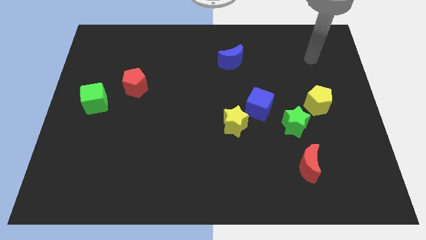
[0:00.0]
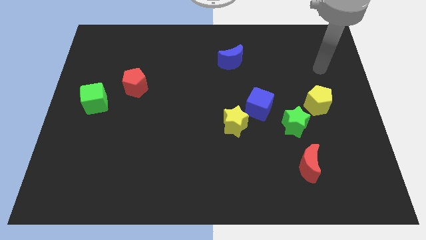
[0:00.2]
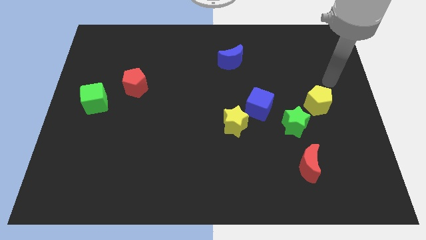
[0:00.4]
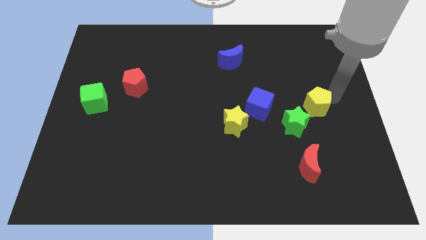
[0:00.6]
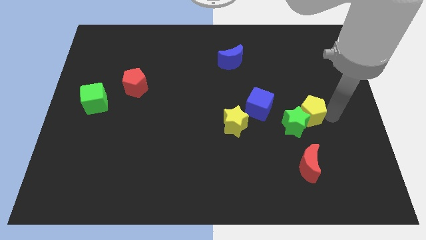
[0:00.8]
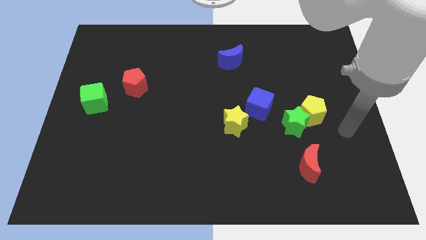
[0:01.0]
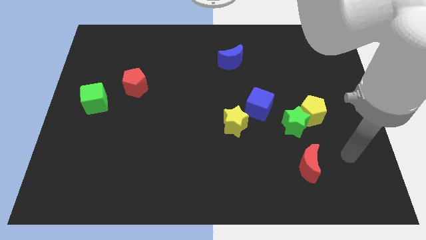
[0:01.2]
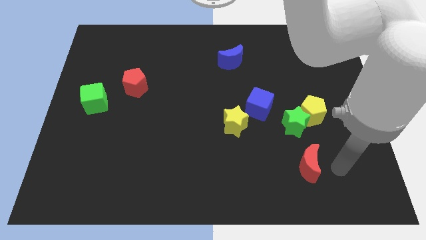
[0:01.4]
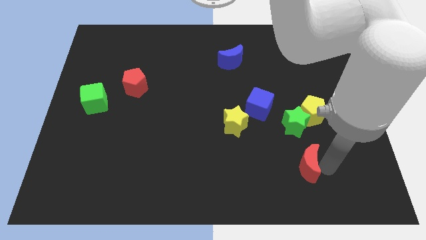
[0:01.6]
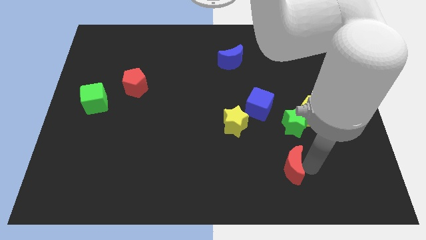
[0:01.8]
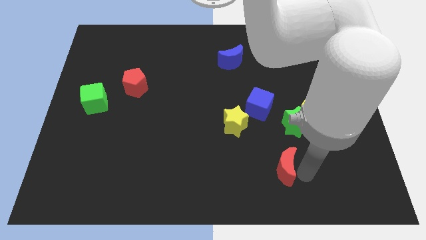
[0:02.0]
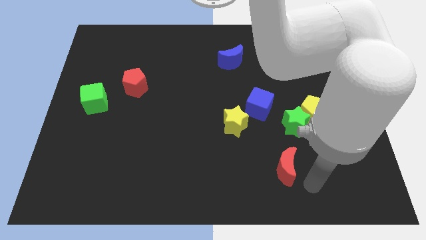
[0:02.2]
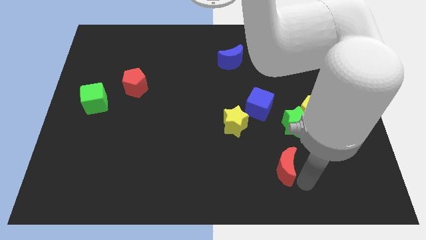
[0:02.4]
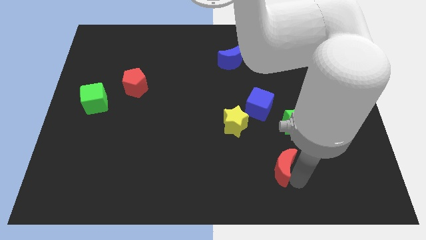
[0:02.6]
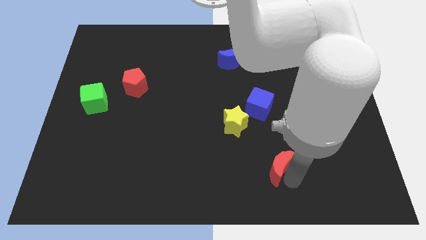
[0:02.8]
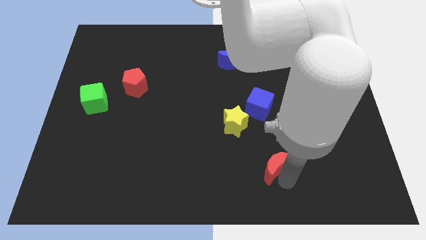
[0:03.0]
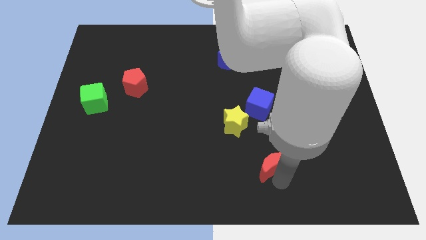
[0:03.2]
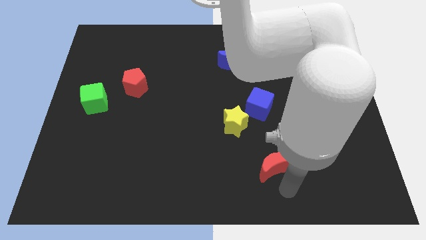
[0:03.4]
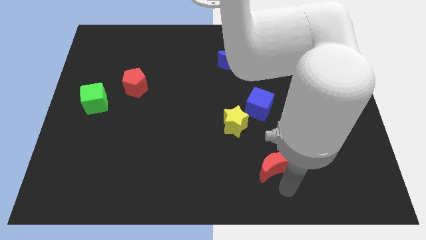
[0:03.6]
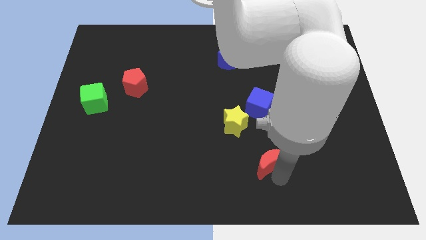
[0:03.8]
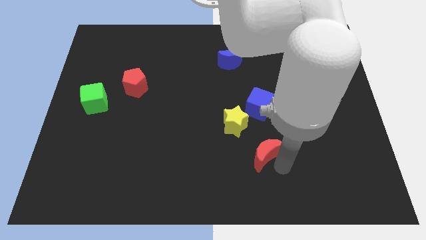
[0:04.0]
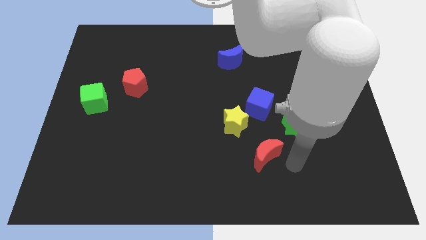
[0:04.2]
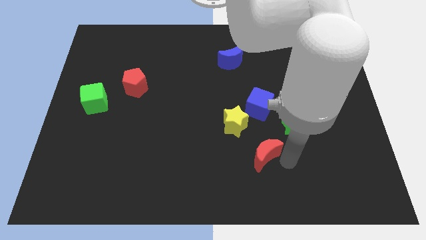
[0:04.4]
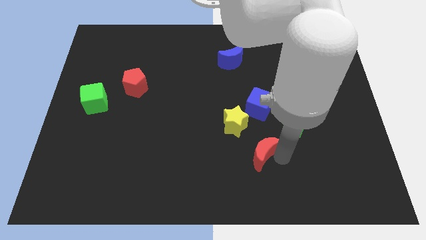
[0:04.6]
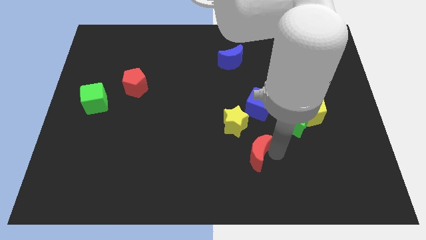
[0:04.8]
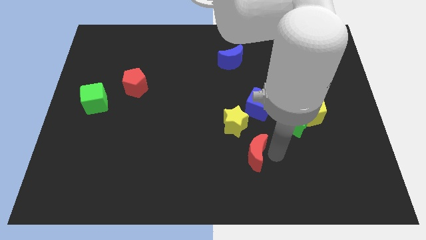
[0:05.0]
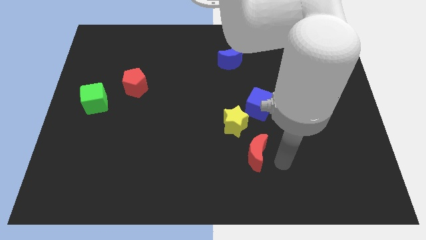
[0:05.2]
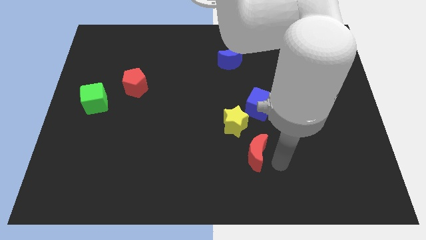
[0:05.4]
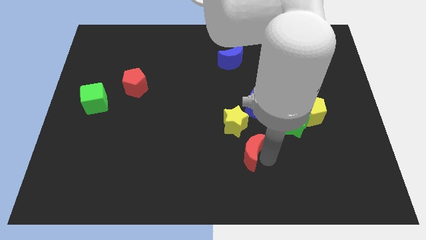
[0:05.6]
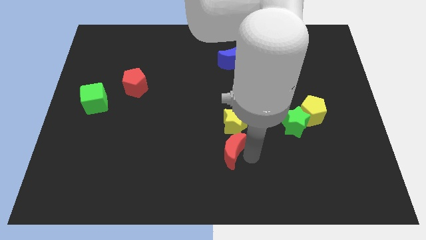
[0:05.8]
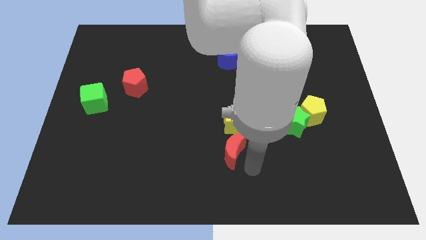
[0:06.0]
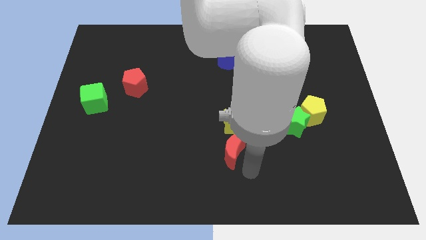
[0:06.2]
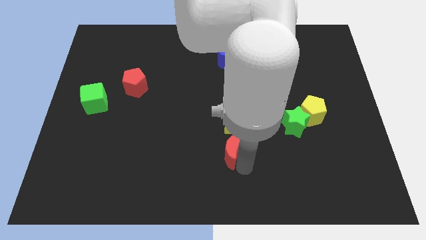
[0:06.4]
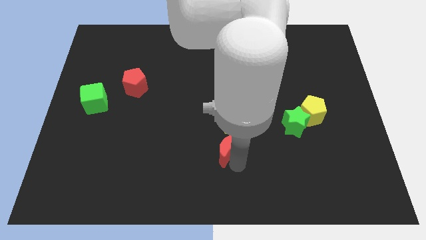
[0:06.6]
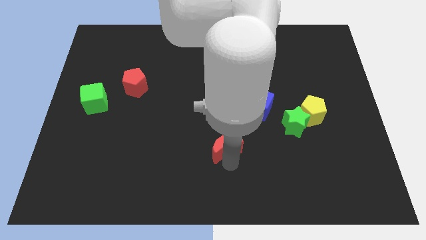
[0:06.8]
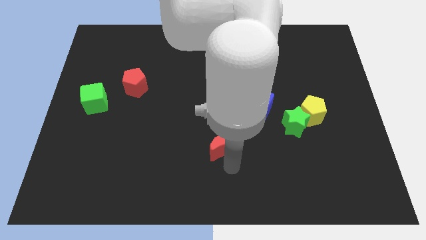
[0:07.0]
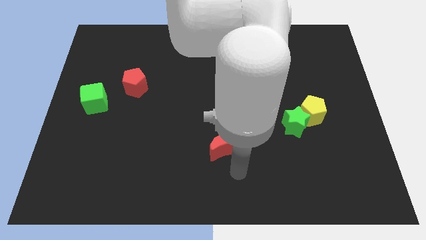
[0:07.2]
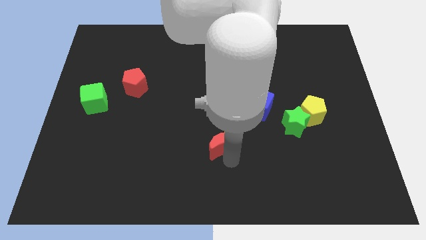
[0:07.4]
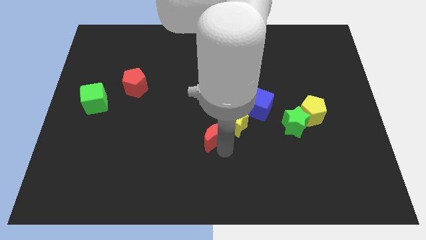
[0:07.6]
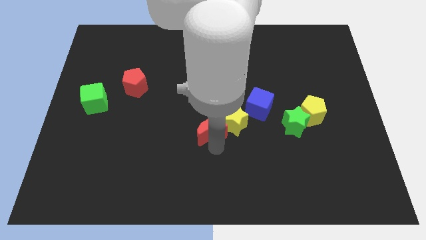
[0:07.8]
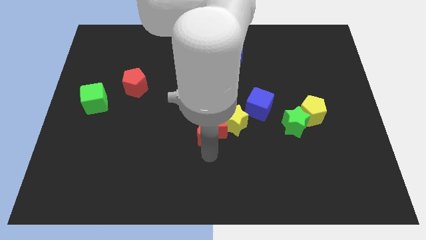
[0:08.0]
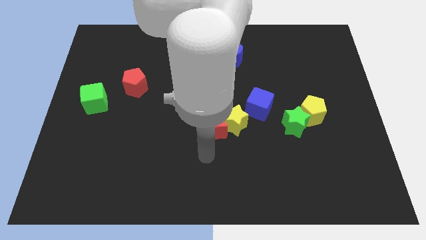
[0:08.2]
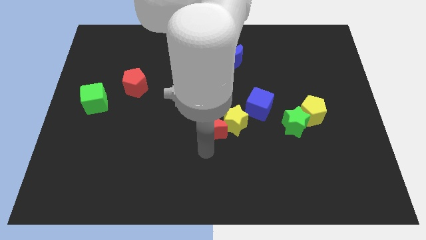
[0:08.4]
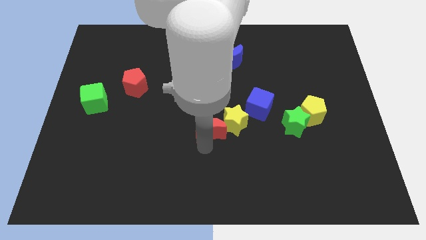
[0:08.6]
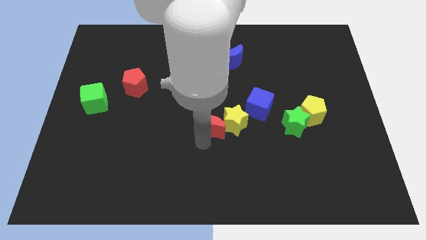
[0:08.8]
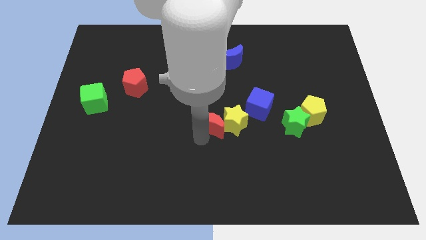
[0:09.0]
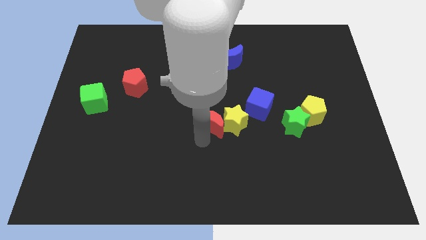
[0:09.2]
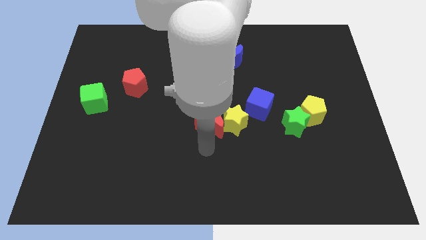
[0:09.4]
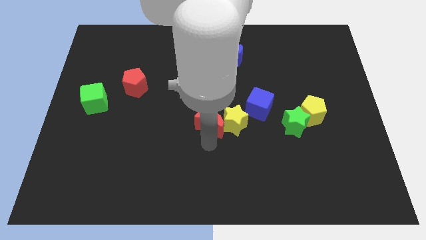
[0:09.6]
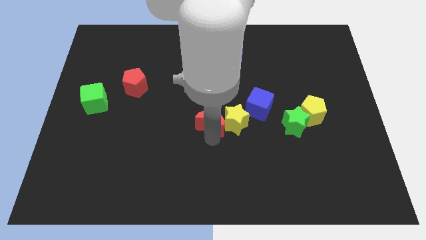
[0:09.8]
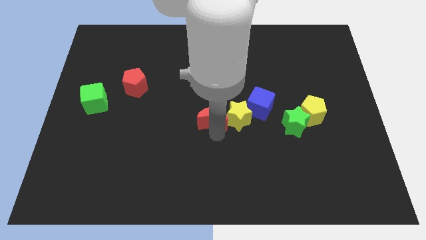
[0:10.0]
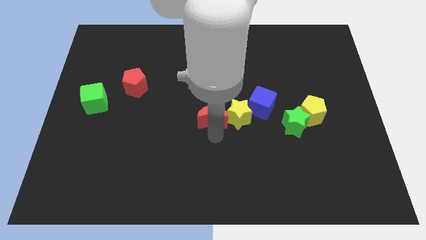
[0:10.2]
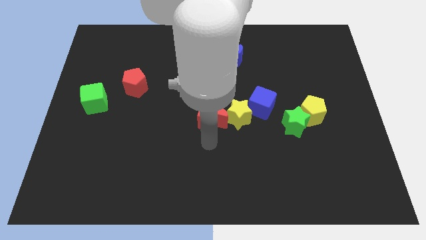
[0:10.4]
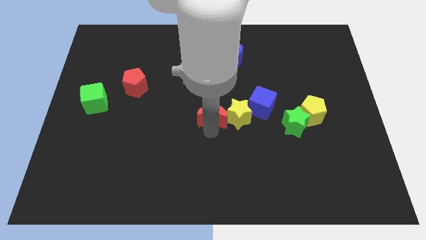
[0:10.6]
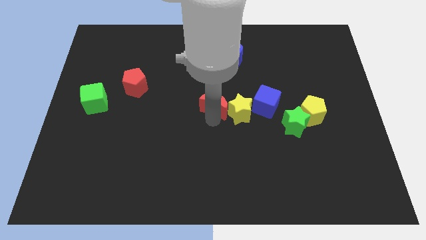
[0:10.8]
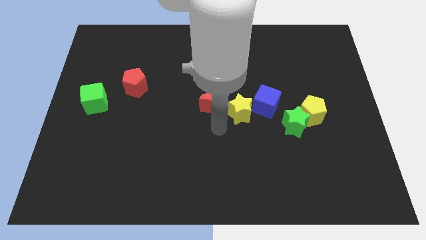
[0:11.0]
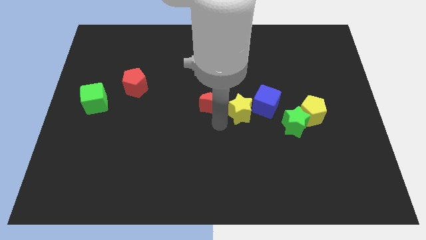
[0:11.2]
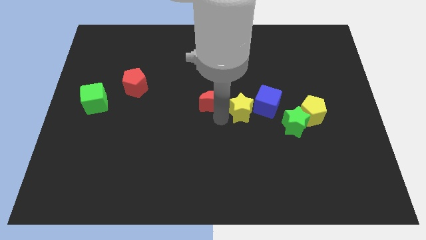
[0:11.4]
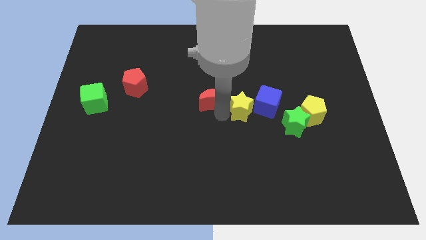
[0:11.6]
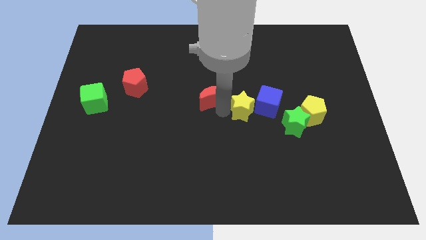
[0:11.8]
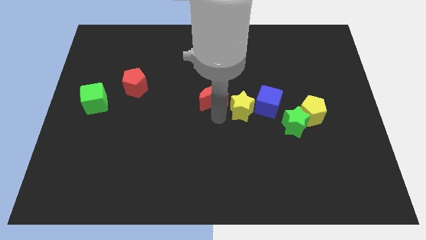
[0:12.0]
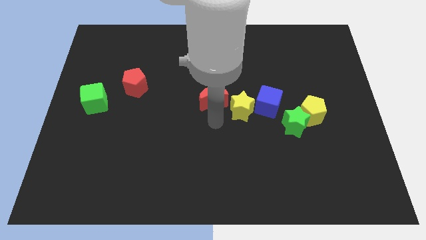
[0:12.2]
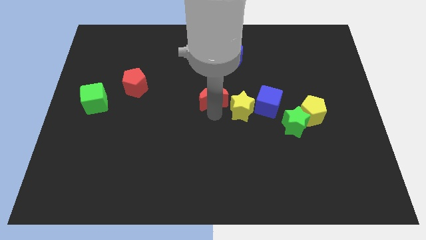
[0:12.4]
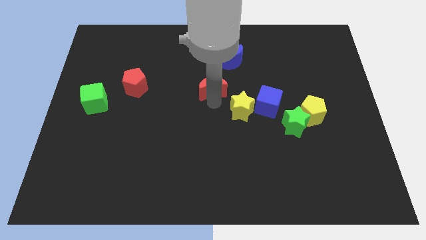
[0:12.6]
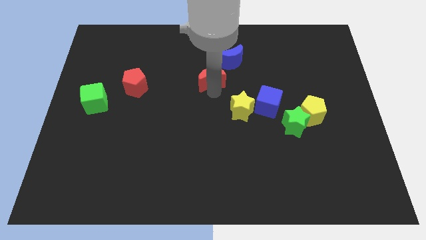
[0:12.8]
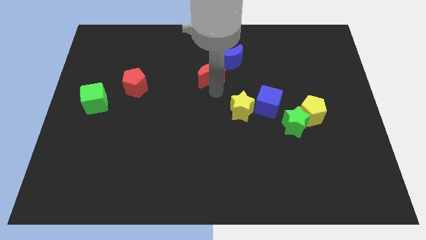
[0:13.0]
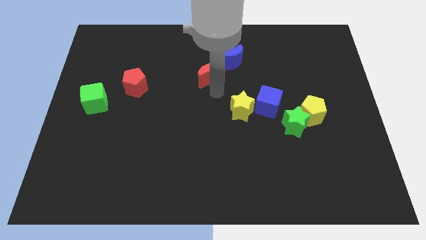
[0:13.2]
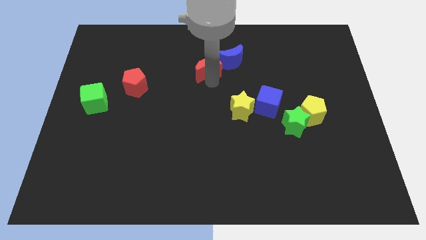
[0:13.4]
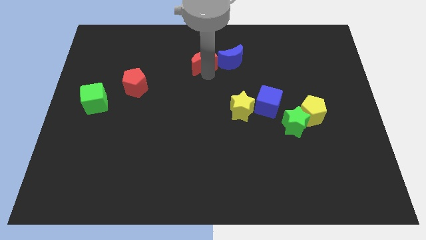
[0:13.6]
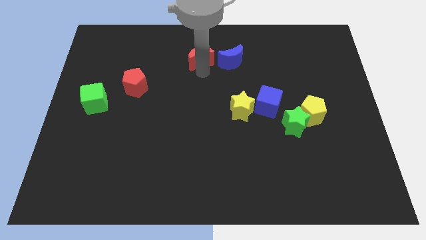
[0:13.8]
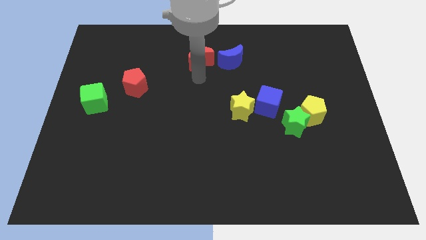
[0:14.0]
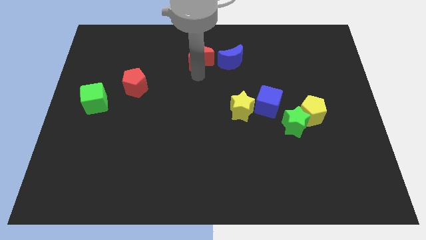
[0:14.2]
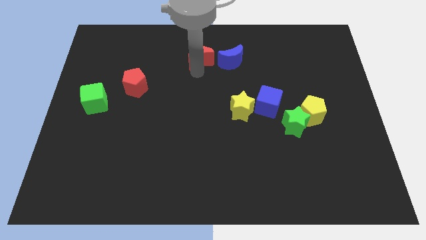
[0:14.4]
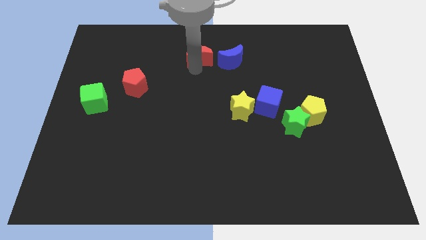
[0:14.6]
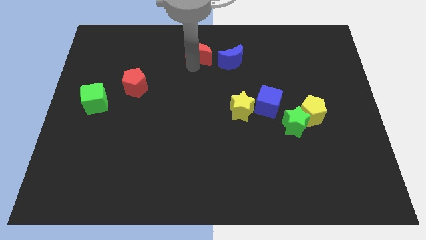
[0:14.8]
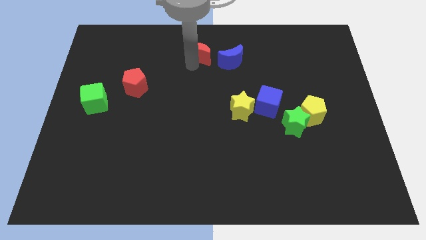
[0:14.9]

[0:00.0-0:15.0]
move the red moon to the top side
